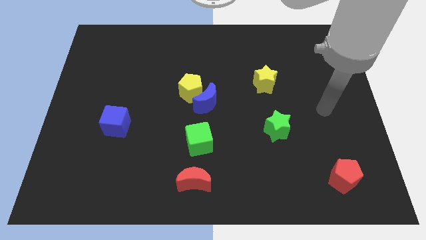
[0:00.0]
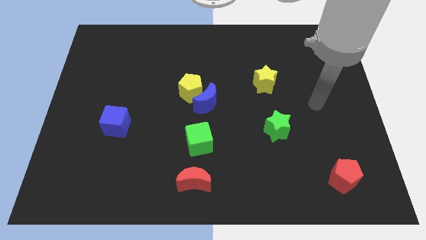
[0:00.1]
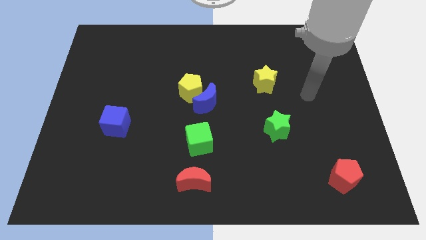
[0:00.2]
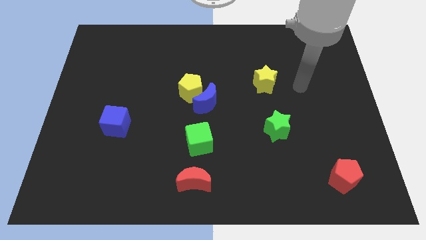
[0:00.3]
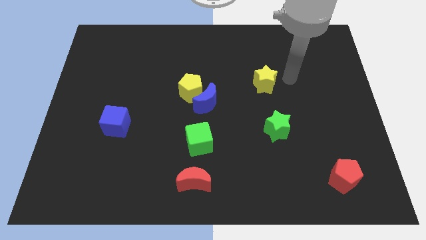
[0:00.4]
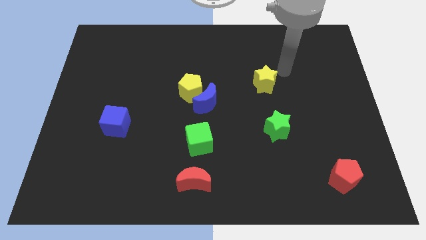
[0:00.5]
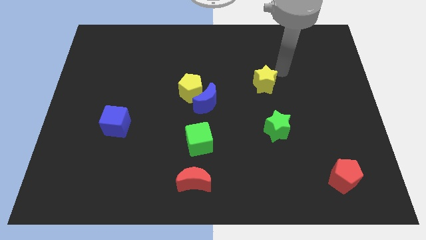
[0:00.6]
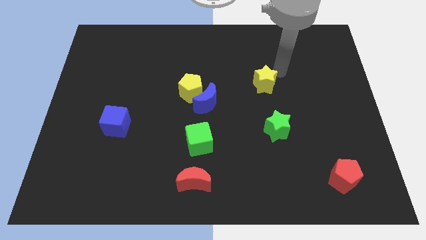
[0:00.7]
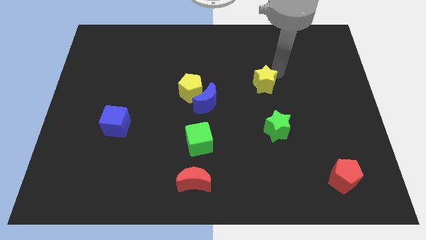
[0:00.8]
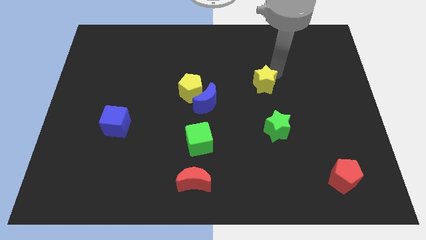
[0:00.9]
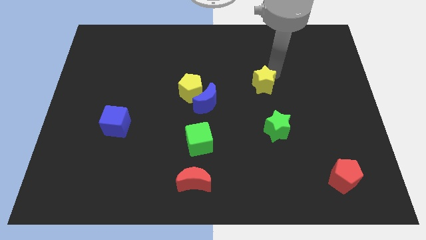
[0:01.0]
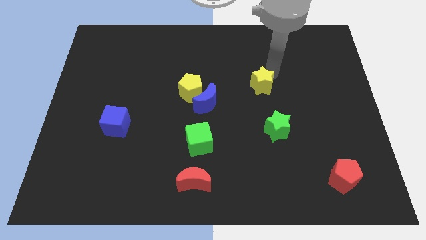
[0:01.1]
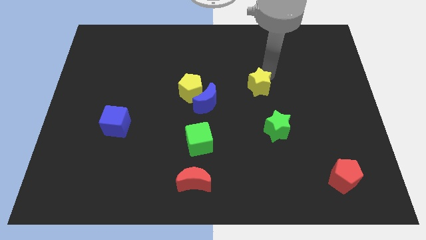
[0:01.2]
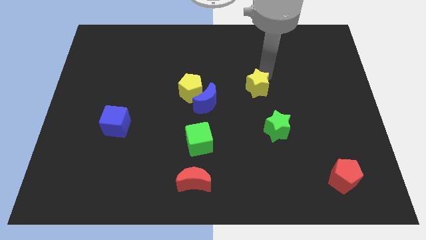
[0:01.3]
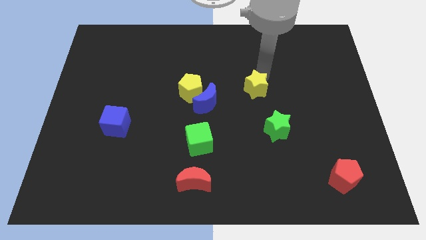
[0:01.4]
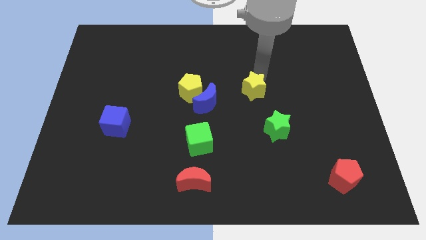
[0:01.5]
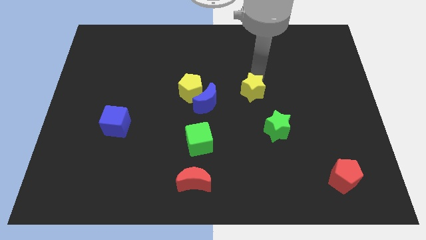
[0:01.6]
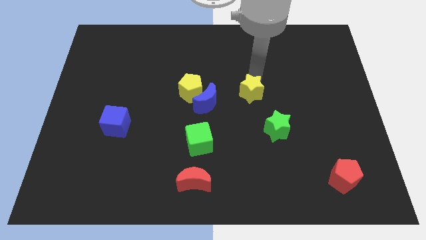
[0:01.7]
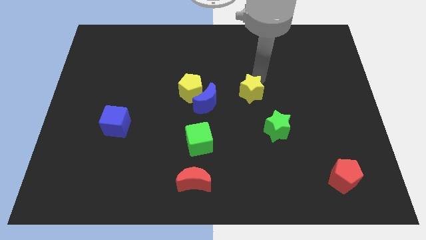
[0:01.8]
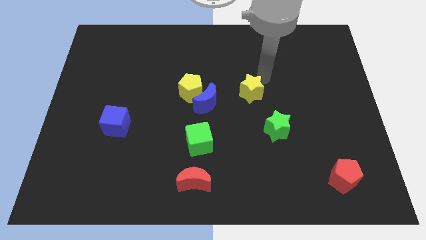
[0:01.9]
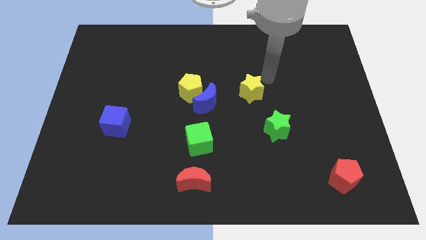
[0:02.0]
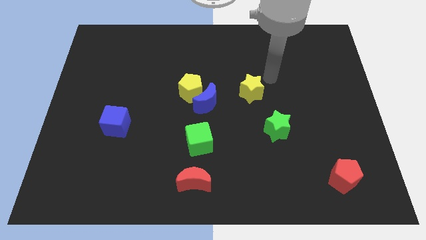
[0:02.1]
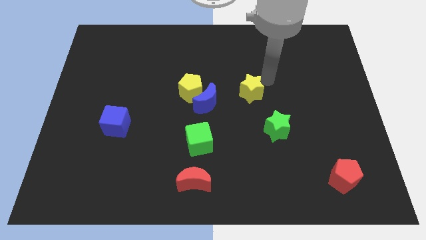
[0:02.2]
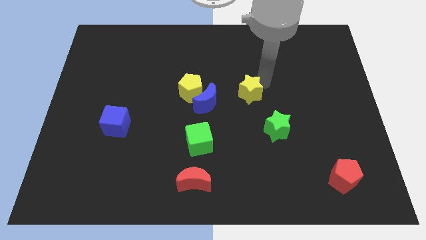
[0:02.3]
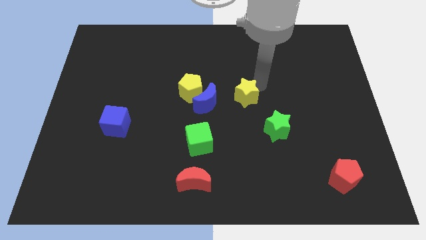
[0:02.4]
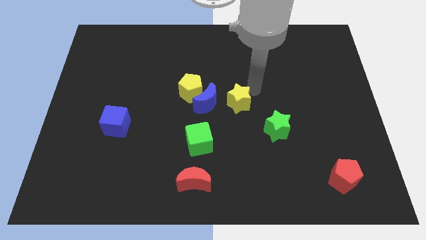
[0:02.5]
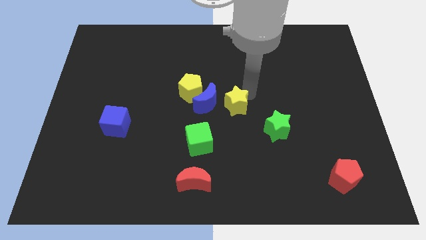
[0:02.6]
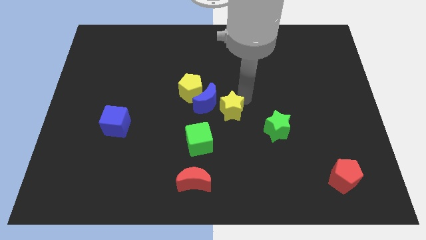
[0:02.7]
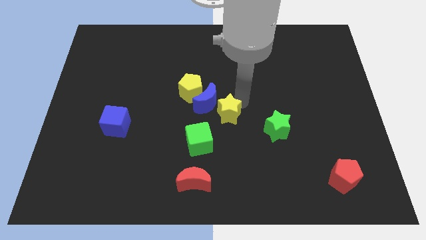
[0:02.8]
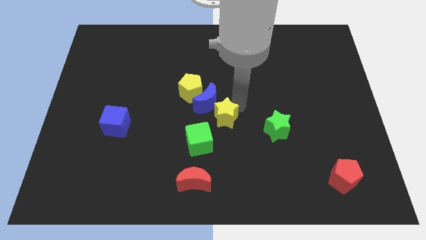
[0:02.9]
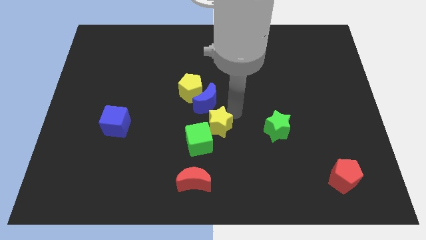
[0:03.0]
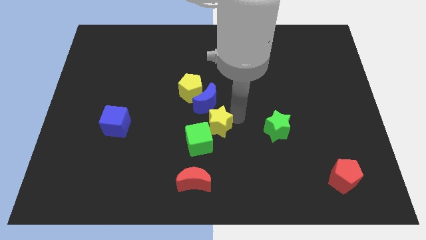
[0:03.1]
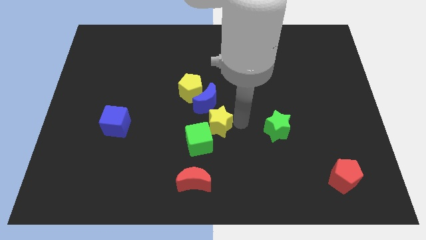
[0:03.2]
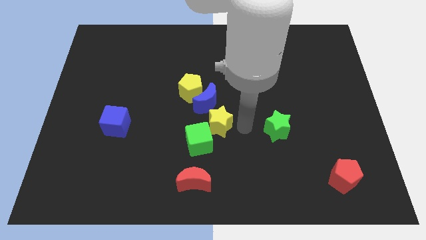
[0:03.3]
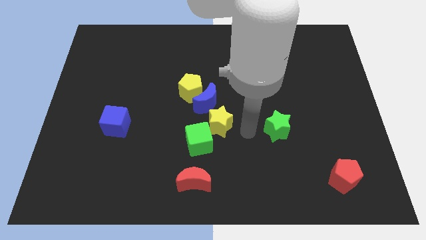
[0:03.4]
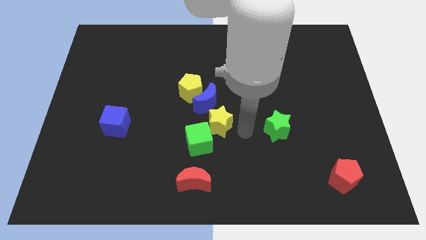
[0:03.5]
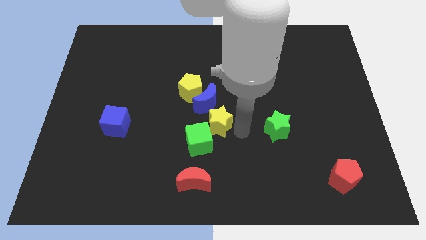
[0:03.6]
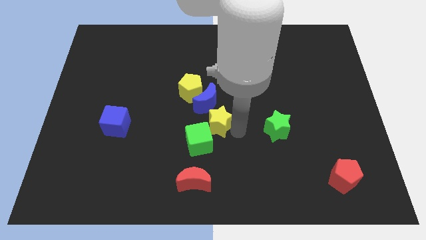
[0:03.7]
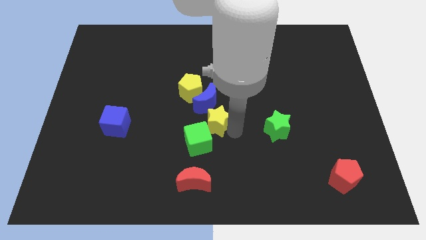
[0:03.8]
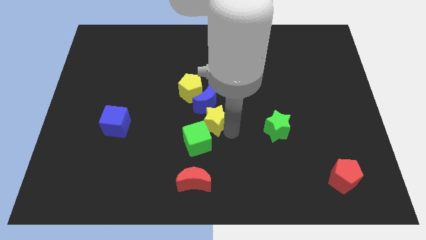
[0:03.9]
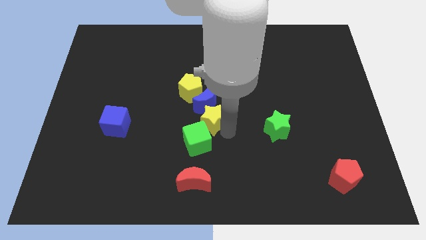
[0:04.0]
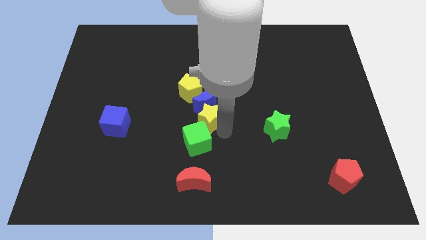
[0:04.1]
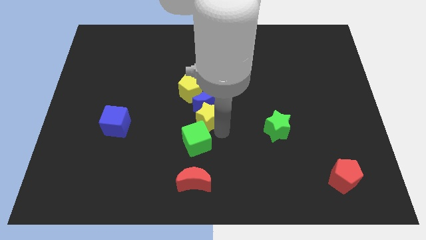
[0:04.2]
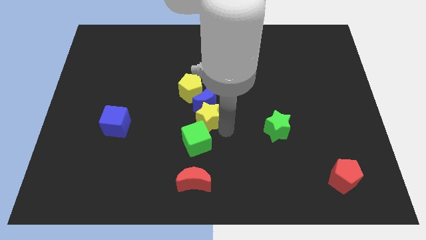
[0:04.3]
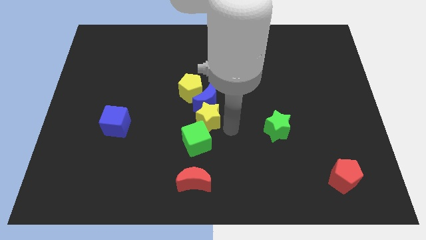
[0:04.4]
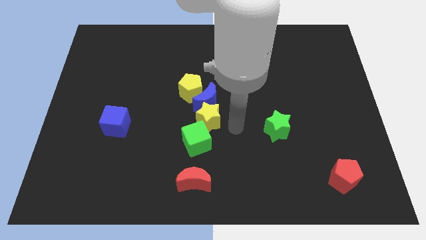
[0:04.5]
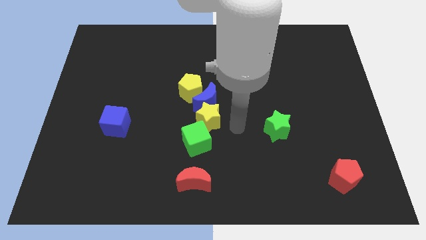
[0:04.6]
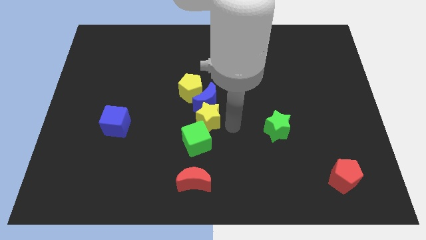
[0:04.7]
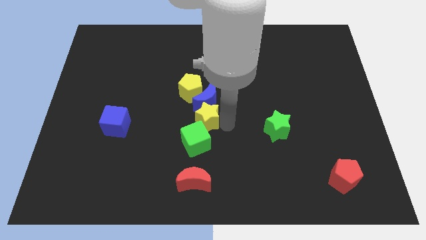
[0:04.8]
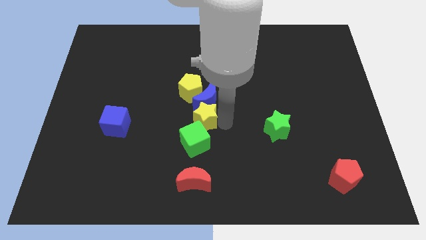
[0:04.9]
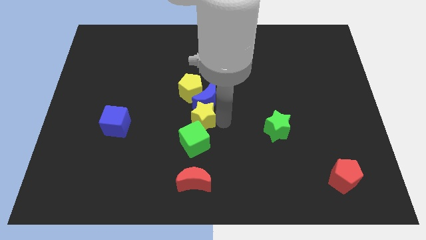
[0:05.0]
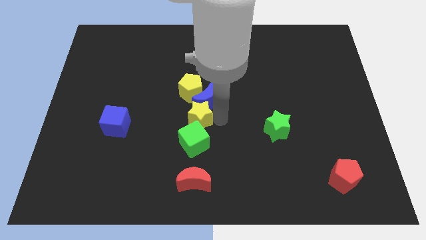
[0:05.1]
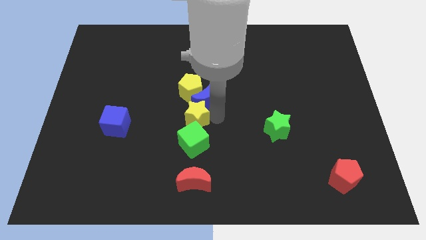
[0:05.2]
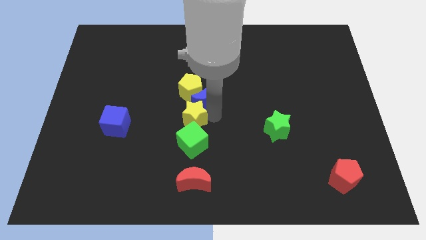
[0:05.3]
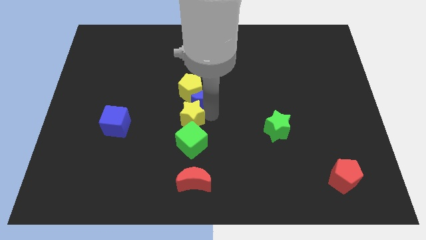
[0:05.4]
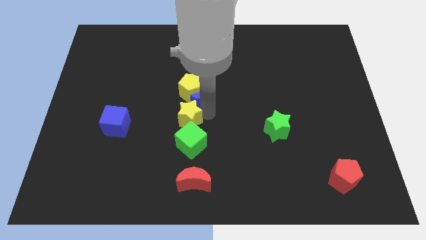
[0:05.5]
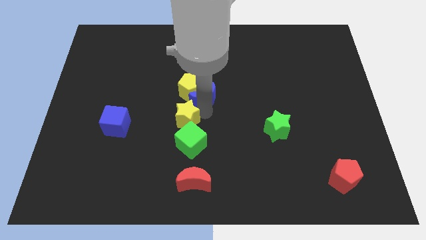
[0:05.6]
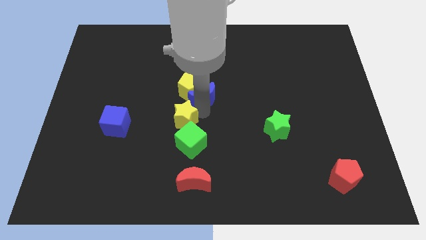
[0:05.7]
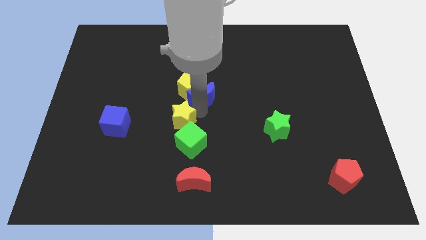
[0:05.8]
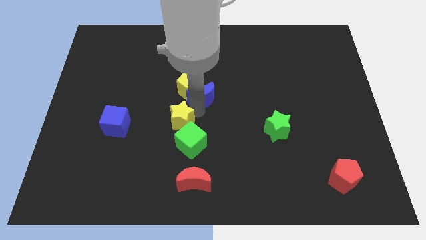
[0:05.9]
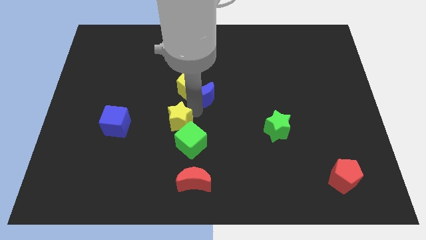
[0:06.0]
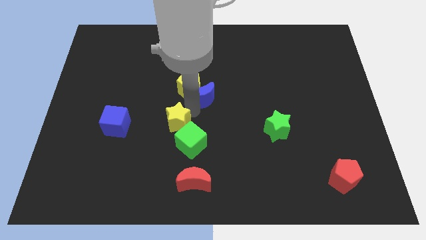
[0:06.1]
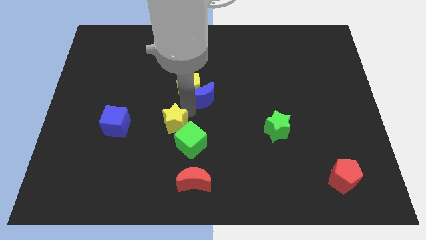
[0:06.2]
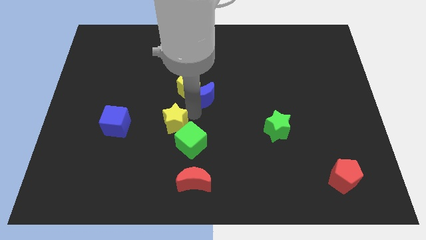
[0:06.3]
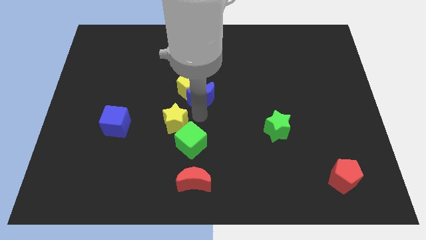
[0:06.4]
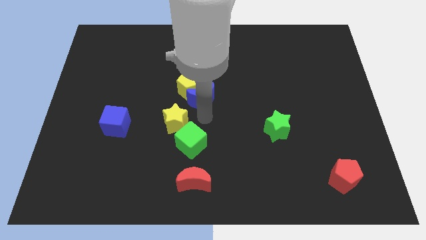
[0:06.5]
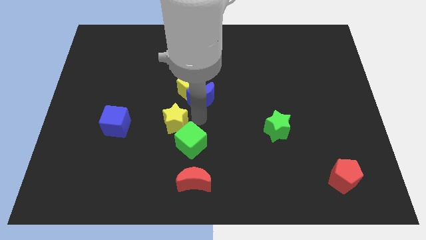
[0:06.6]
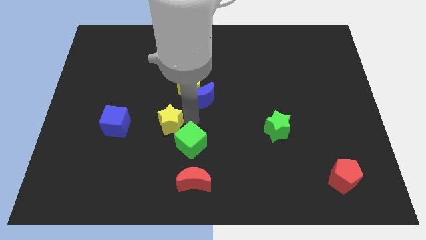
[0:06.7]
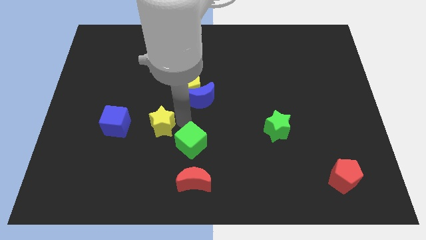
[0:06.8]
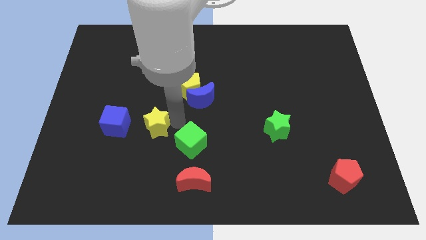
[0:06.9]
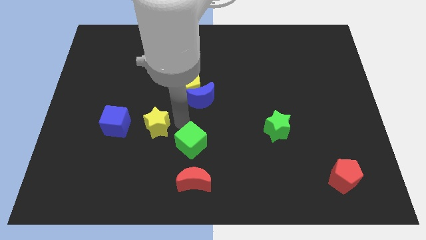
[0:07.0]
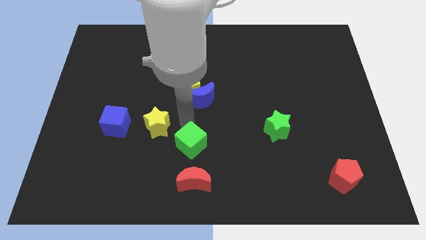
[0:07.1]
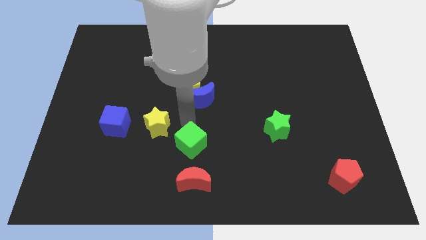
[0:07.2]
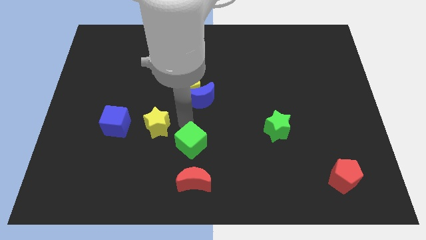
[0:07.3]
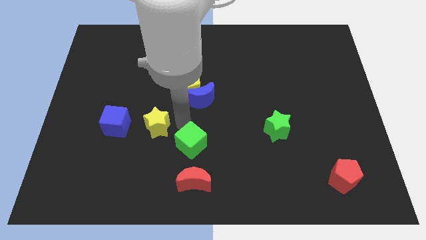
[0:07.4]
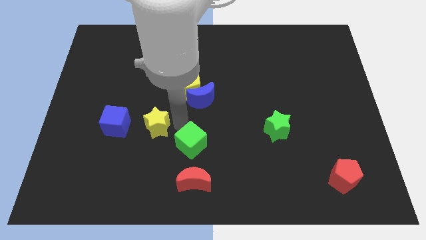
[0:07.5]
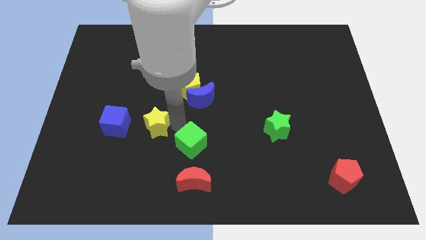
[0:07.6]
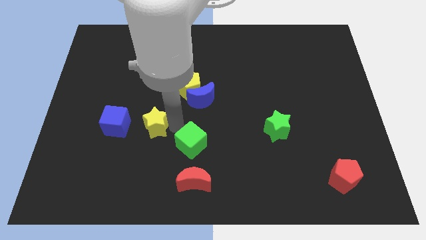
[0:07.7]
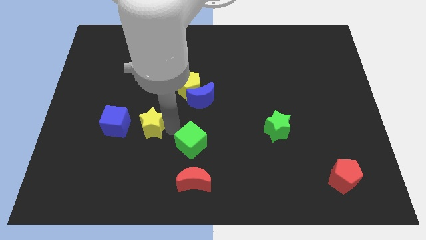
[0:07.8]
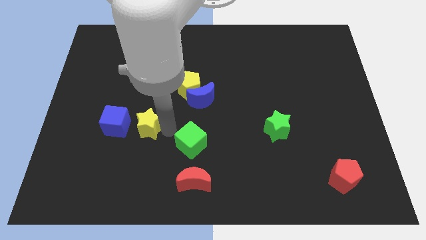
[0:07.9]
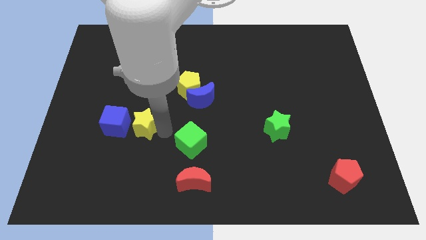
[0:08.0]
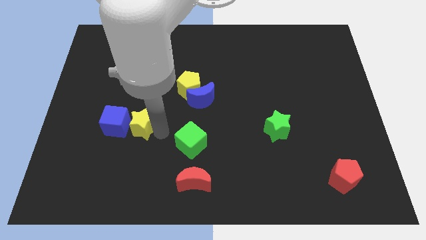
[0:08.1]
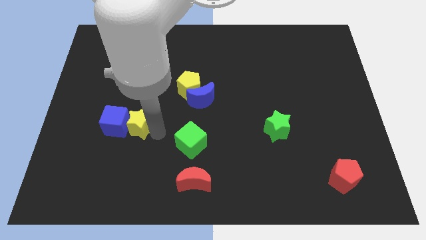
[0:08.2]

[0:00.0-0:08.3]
slide the yellow star close to the blue cube
